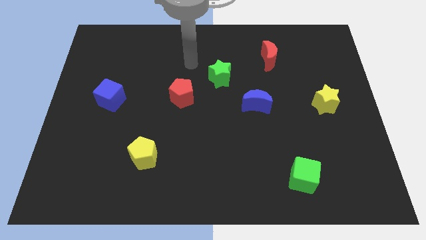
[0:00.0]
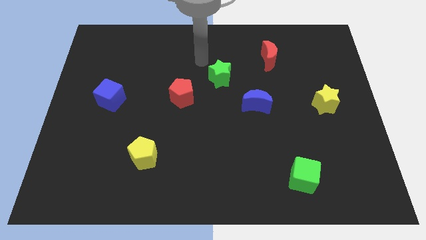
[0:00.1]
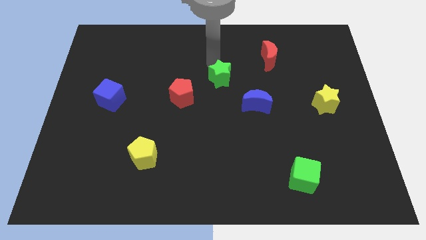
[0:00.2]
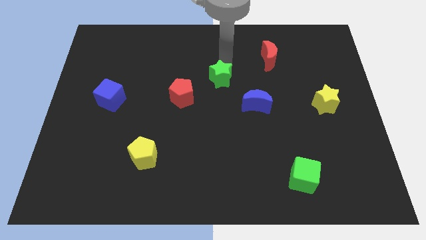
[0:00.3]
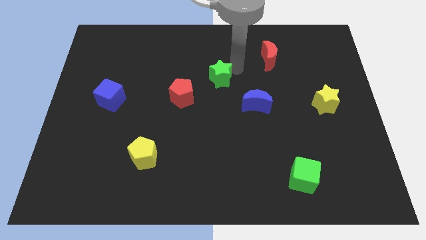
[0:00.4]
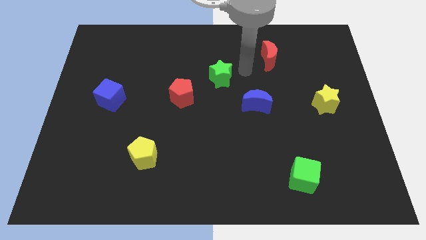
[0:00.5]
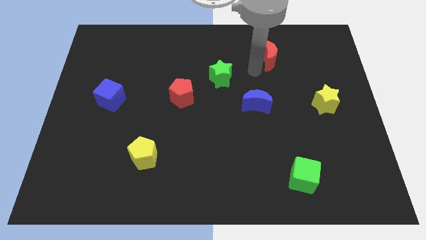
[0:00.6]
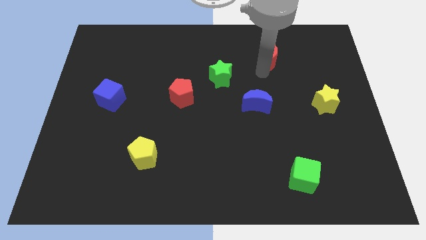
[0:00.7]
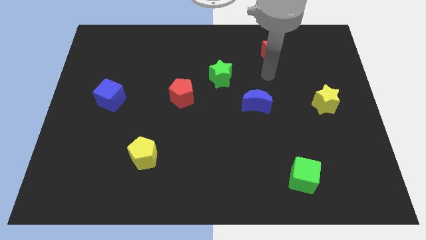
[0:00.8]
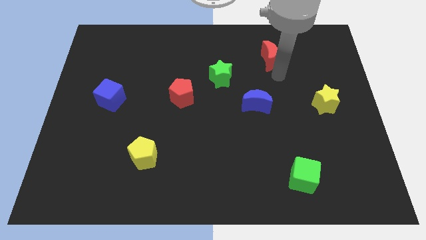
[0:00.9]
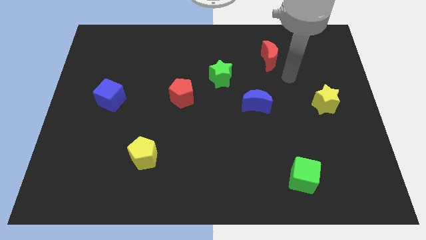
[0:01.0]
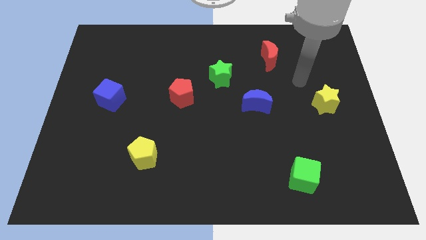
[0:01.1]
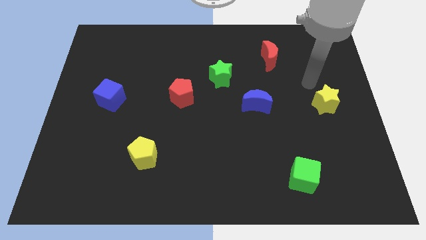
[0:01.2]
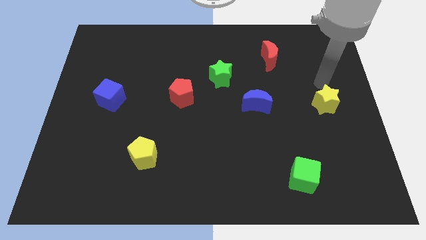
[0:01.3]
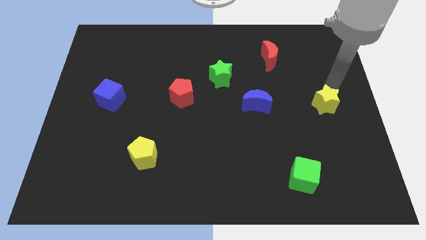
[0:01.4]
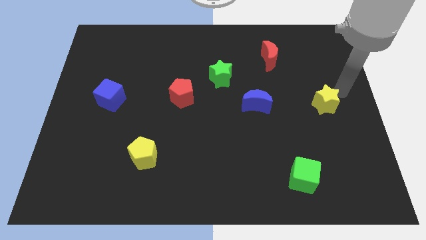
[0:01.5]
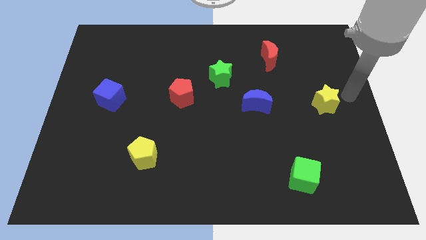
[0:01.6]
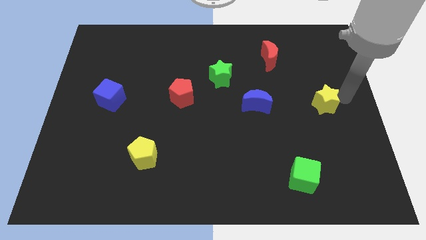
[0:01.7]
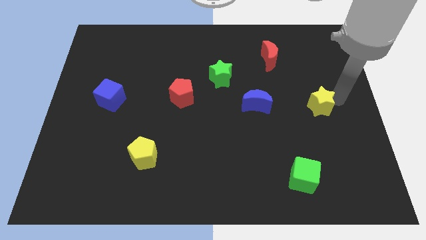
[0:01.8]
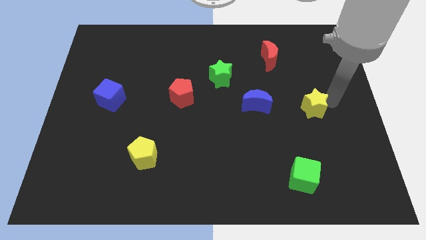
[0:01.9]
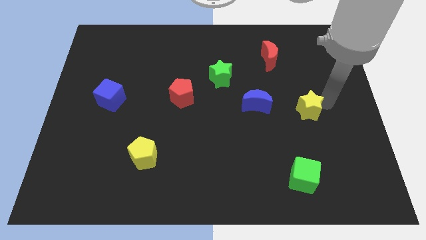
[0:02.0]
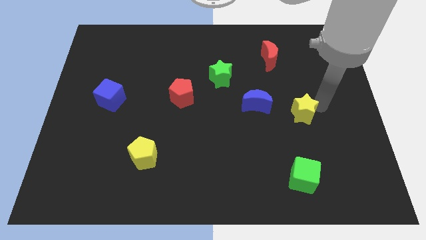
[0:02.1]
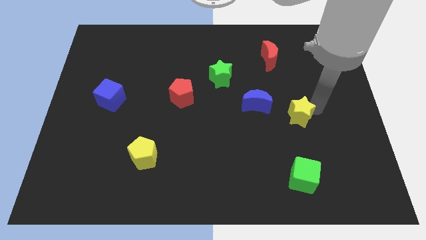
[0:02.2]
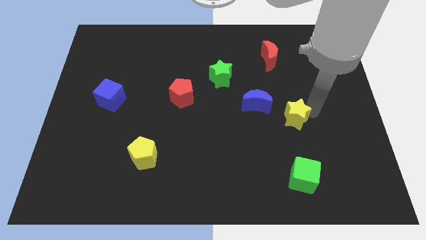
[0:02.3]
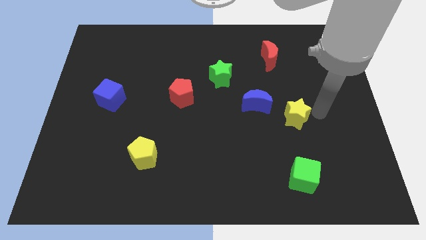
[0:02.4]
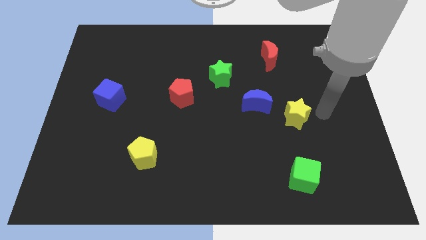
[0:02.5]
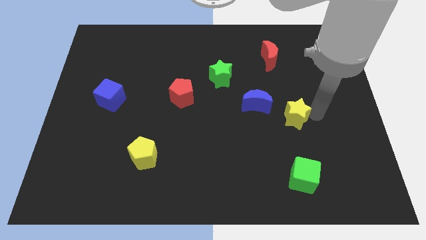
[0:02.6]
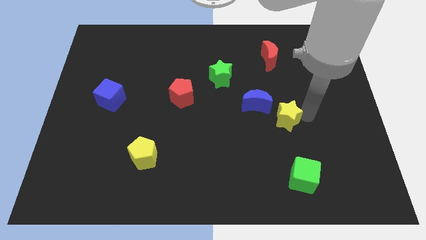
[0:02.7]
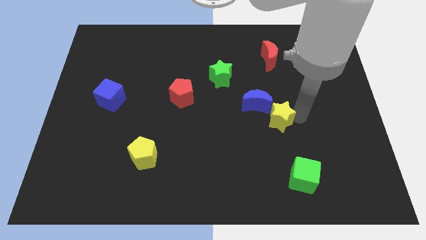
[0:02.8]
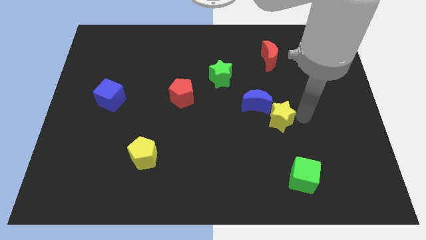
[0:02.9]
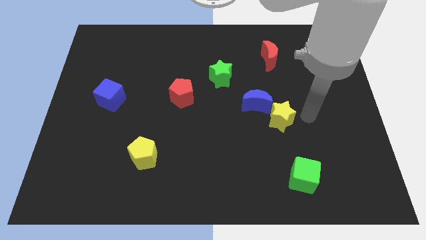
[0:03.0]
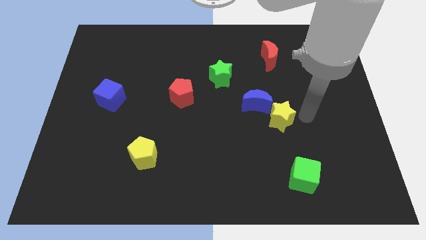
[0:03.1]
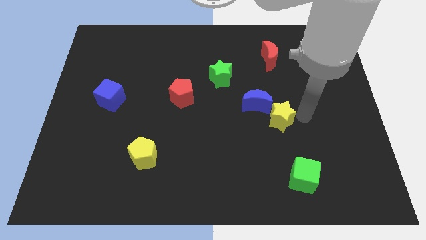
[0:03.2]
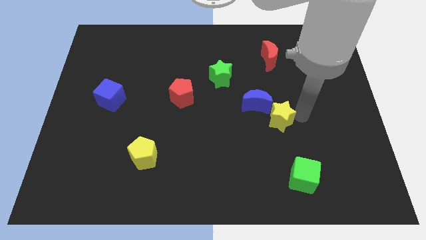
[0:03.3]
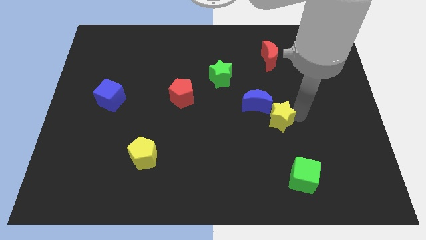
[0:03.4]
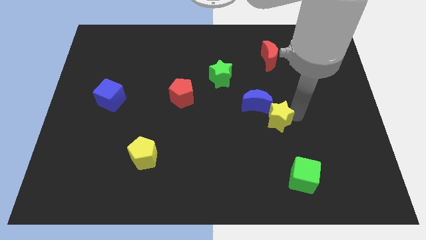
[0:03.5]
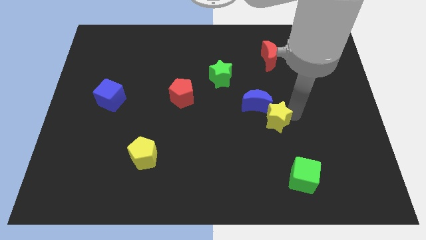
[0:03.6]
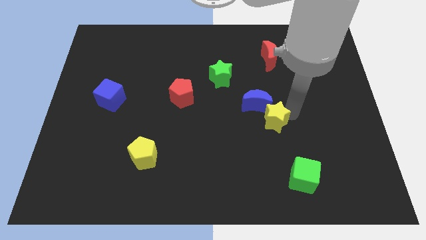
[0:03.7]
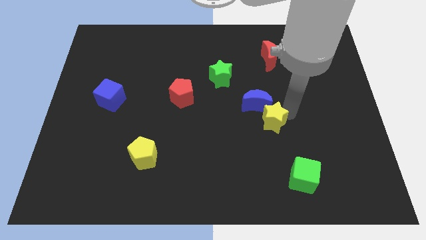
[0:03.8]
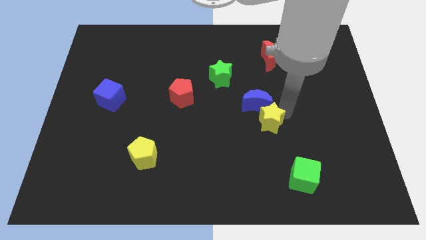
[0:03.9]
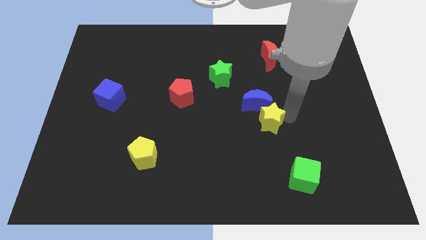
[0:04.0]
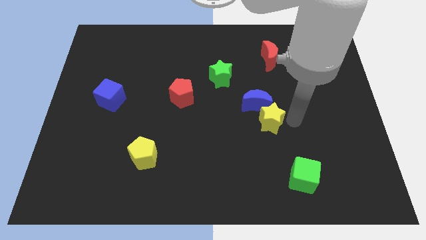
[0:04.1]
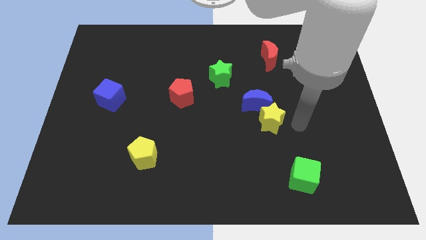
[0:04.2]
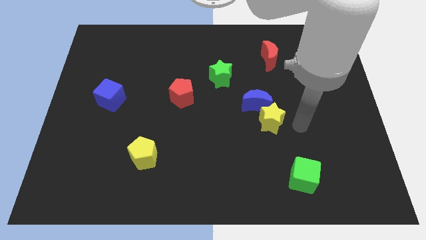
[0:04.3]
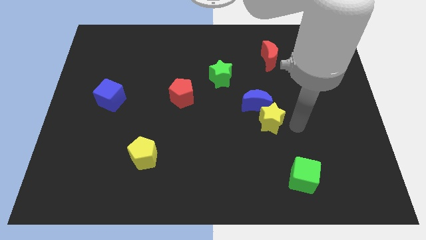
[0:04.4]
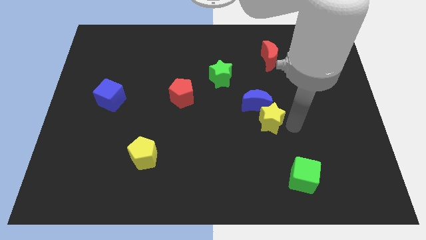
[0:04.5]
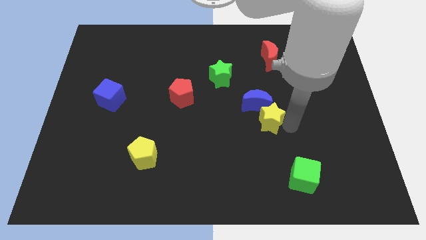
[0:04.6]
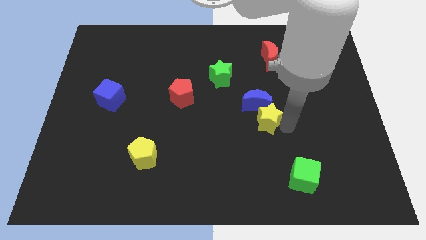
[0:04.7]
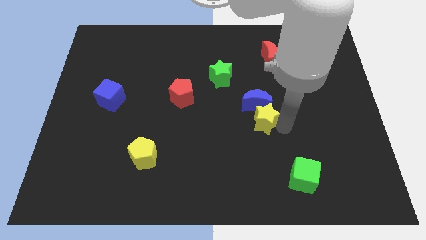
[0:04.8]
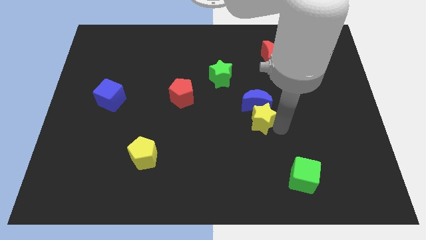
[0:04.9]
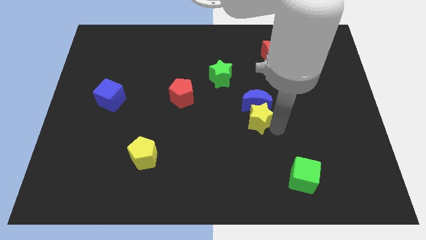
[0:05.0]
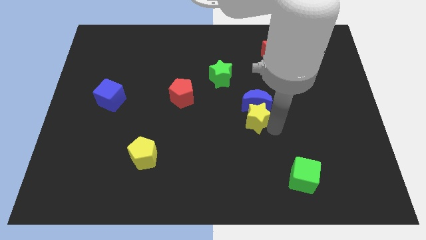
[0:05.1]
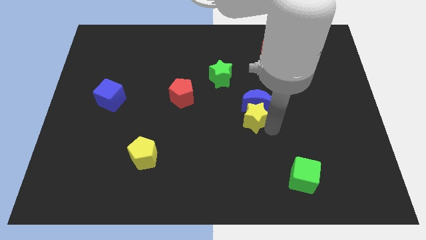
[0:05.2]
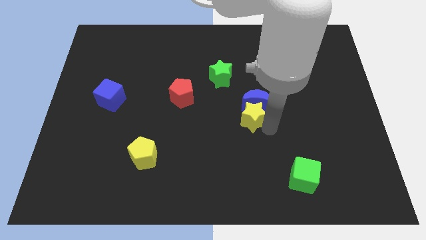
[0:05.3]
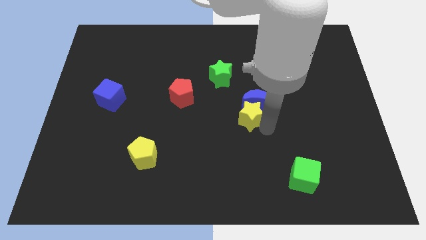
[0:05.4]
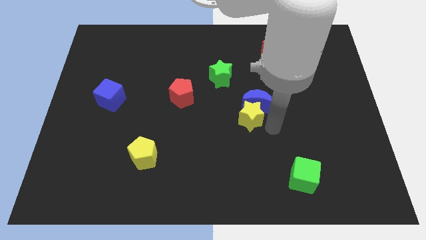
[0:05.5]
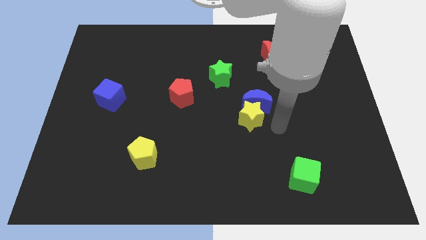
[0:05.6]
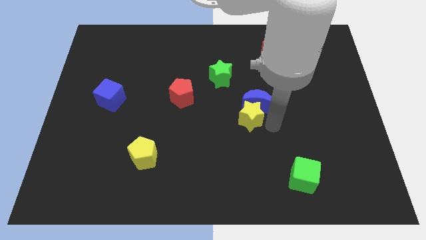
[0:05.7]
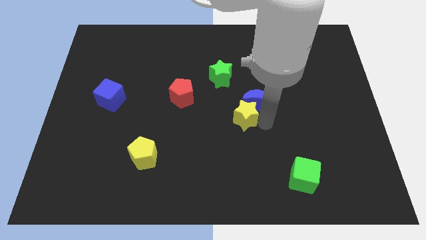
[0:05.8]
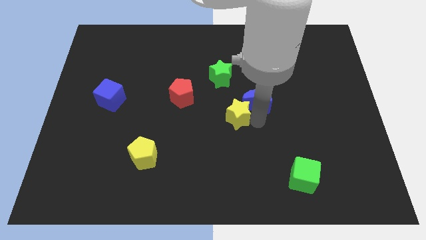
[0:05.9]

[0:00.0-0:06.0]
put the yellow star below the green star

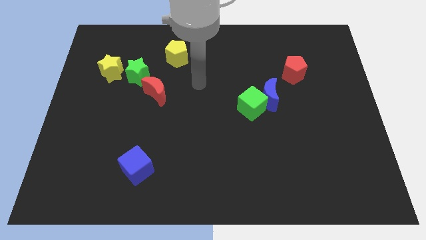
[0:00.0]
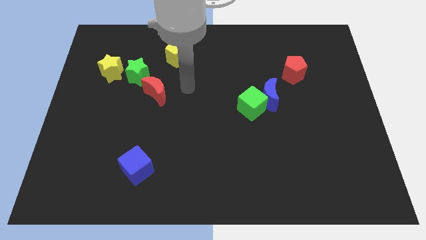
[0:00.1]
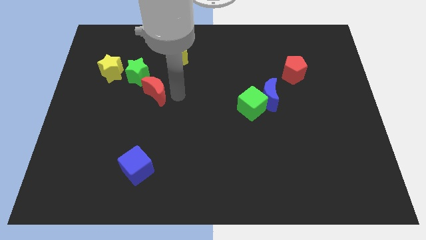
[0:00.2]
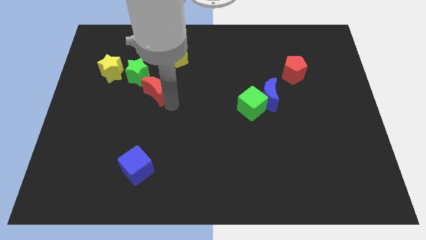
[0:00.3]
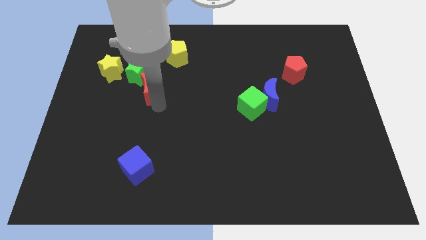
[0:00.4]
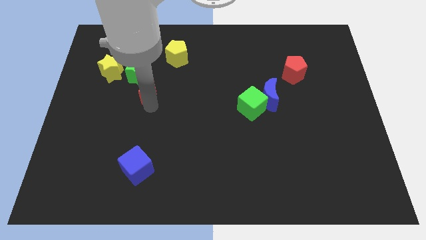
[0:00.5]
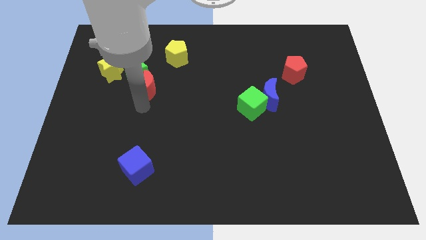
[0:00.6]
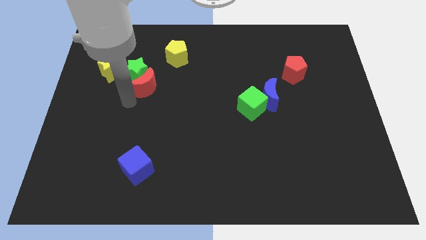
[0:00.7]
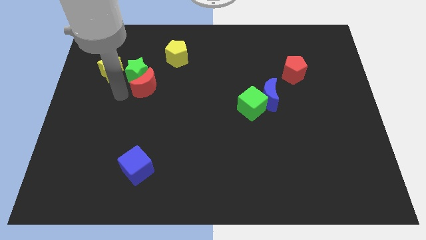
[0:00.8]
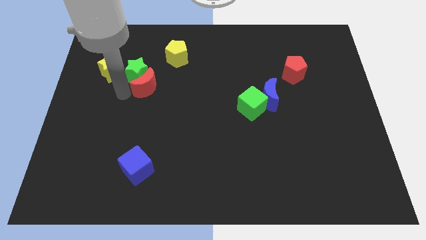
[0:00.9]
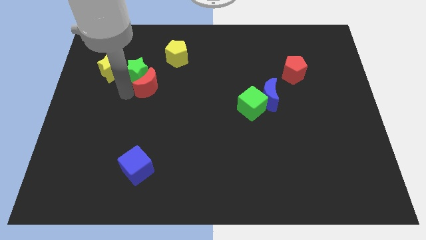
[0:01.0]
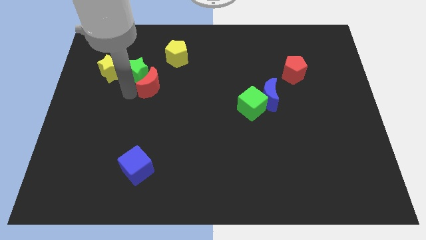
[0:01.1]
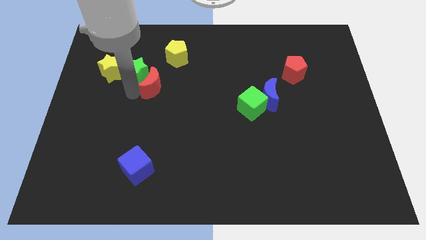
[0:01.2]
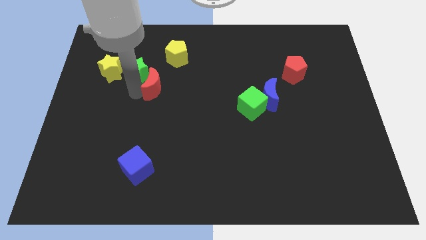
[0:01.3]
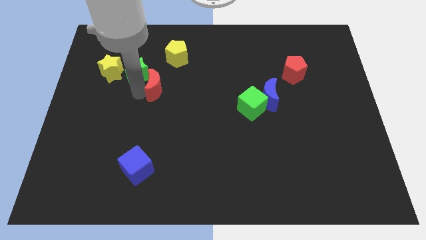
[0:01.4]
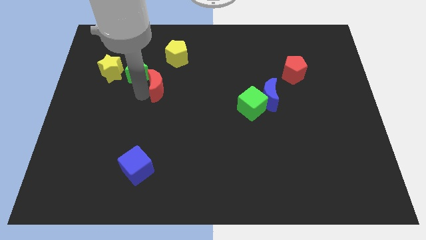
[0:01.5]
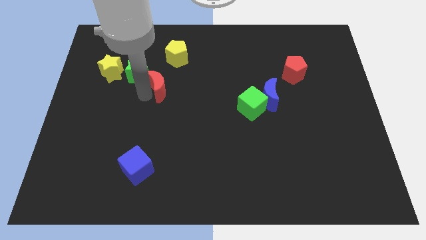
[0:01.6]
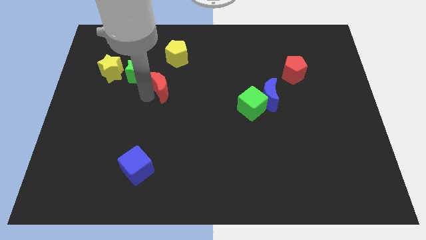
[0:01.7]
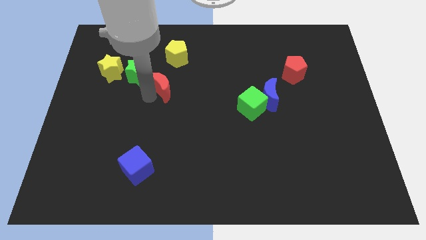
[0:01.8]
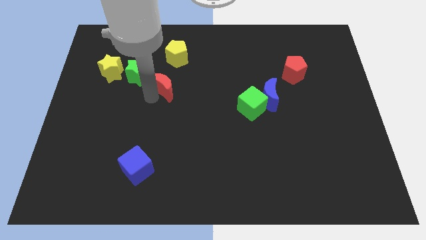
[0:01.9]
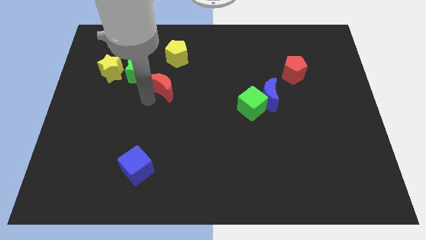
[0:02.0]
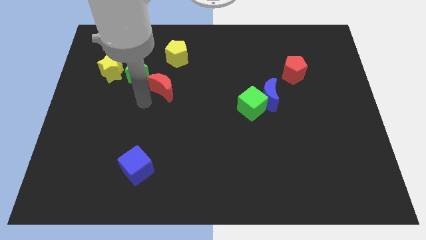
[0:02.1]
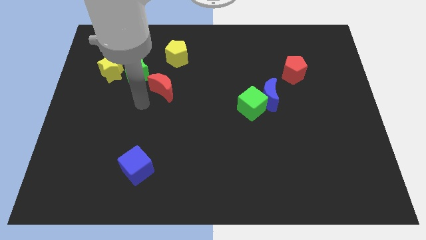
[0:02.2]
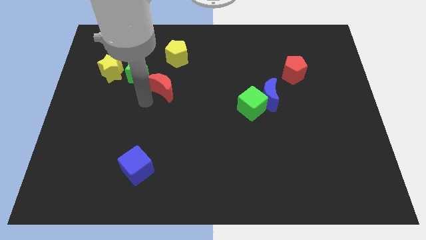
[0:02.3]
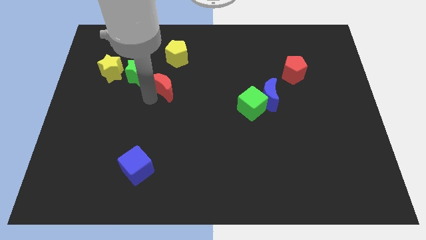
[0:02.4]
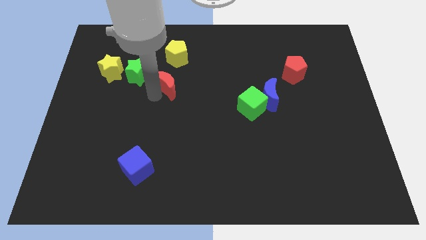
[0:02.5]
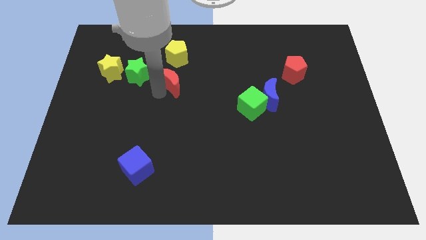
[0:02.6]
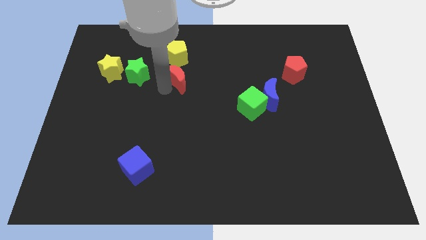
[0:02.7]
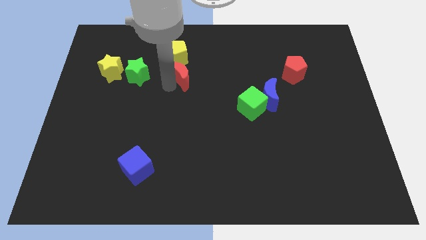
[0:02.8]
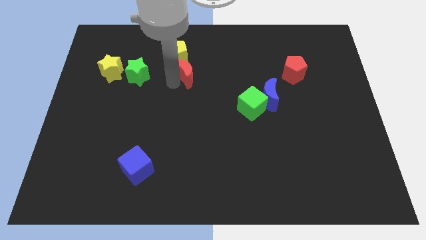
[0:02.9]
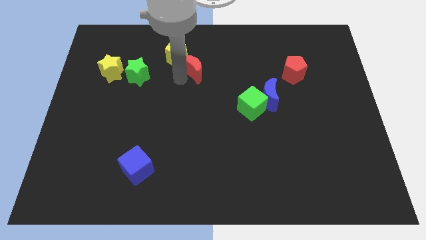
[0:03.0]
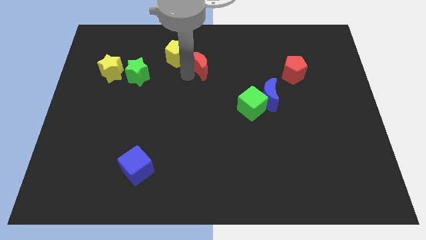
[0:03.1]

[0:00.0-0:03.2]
move the red moon to the right of the yellow pentagon
